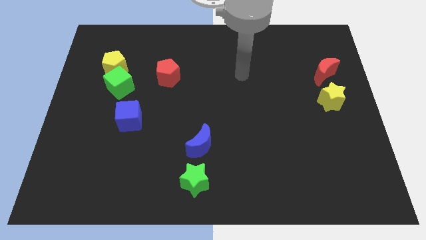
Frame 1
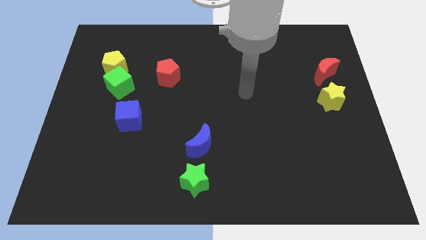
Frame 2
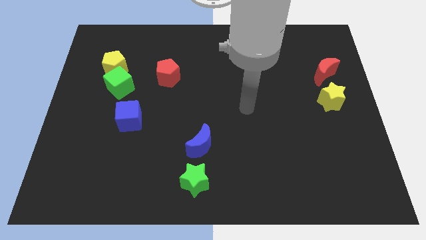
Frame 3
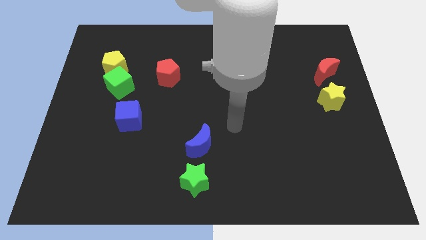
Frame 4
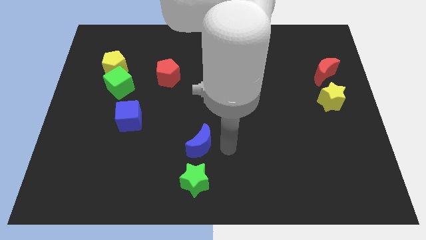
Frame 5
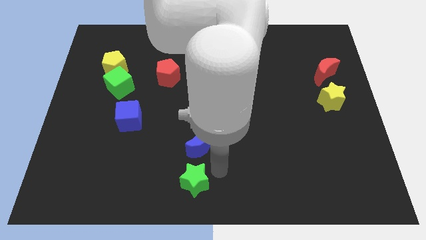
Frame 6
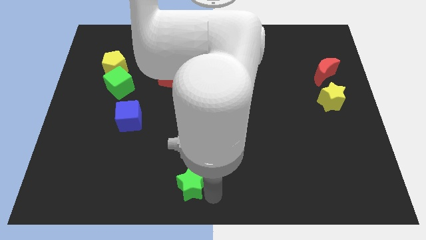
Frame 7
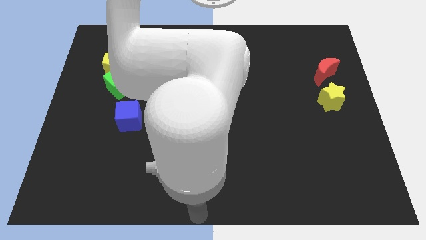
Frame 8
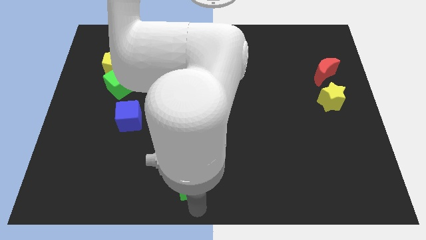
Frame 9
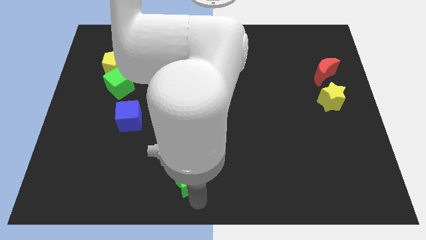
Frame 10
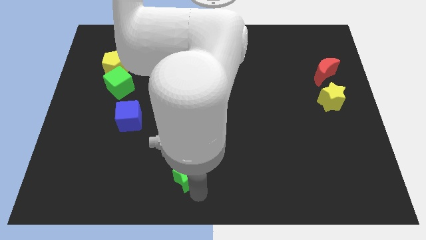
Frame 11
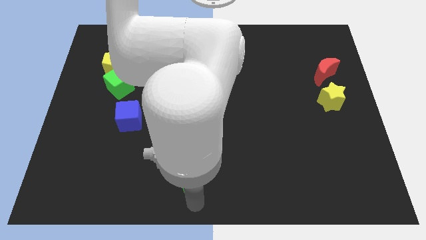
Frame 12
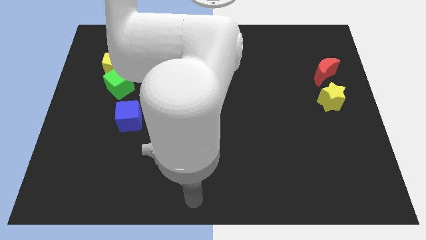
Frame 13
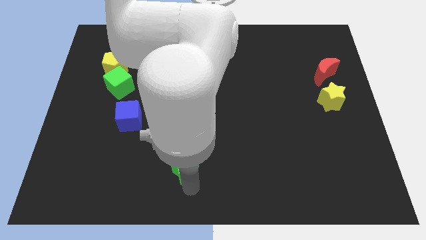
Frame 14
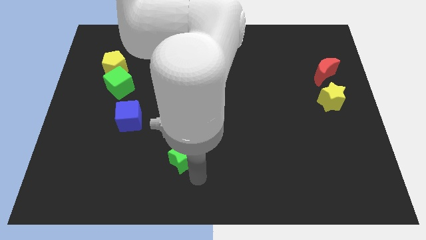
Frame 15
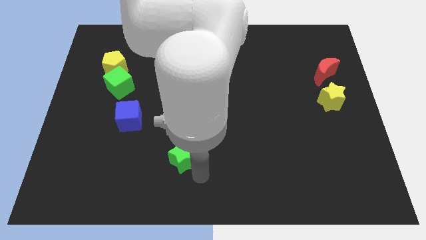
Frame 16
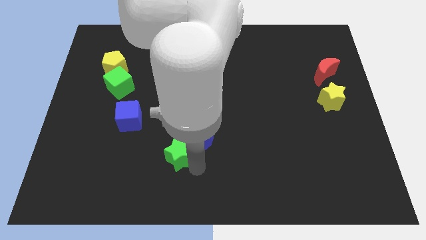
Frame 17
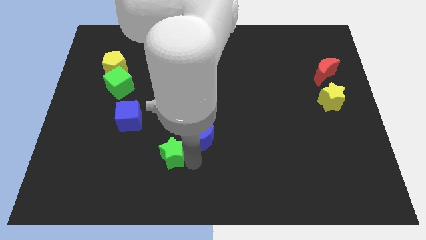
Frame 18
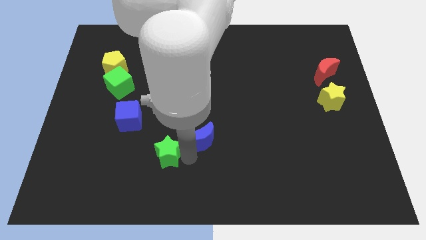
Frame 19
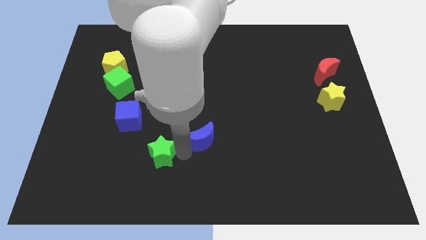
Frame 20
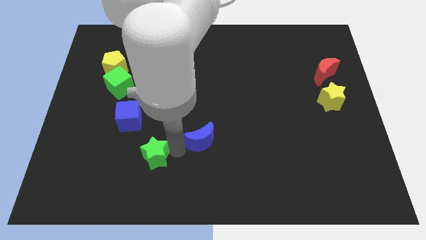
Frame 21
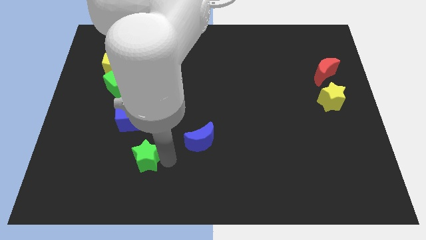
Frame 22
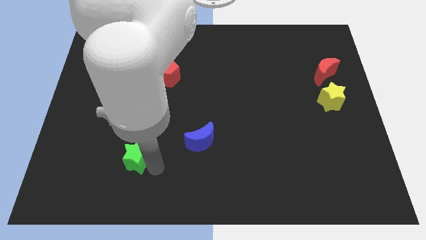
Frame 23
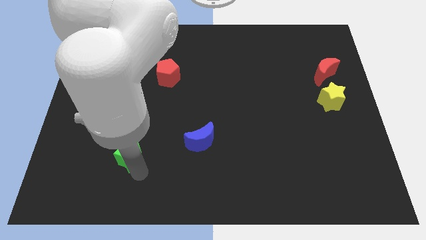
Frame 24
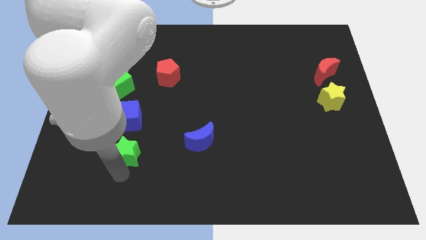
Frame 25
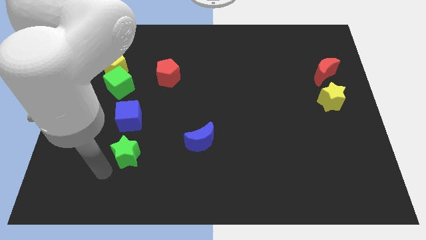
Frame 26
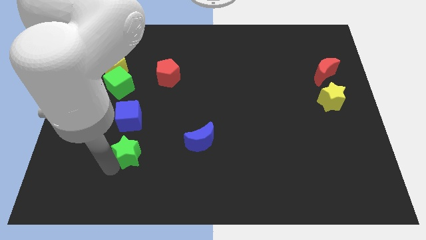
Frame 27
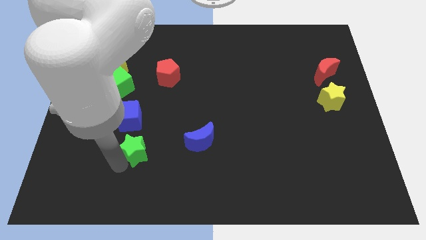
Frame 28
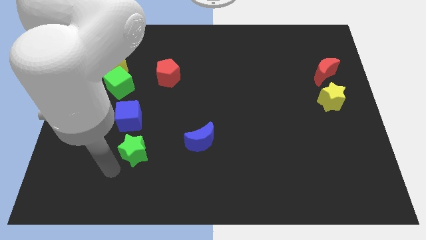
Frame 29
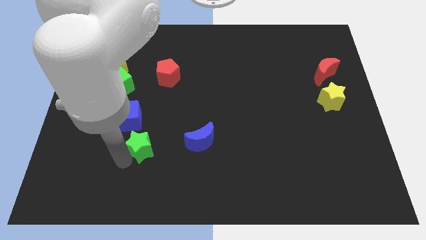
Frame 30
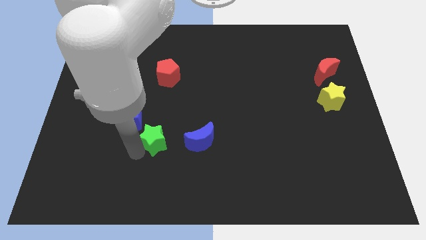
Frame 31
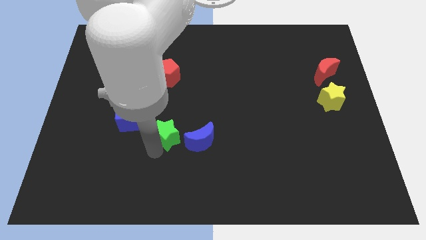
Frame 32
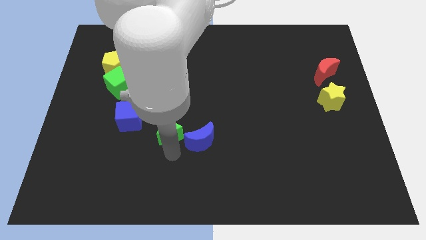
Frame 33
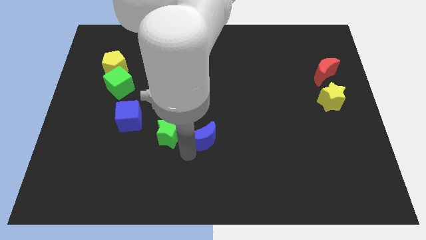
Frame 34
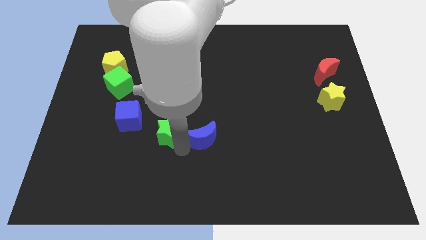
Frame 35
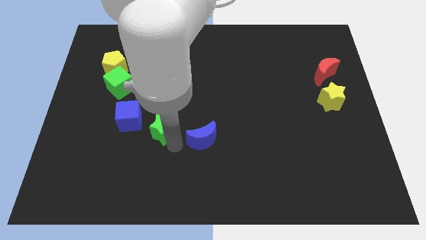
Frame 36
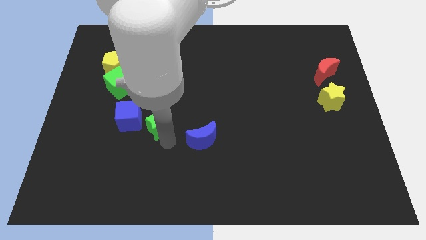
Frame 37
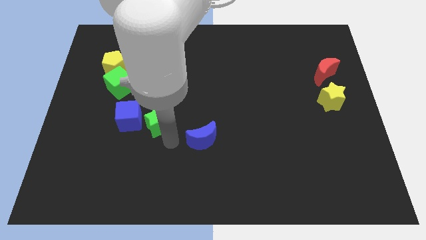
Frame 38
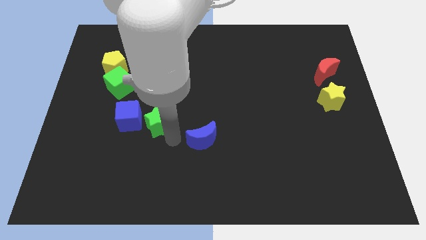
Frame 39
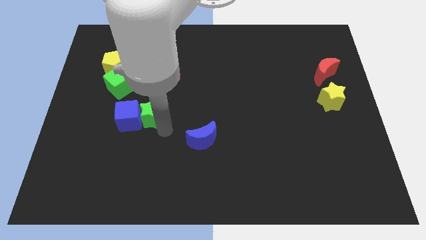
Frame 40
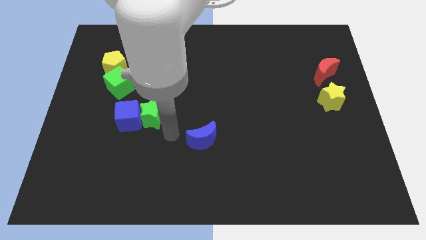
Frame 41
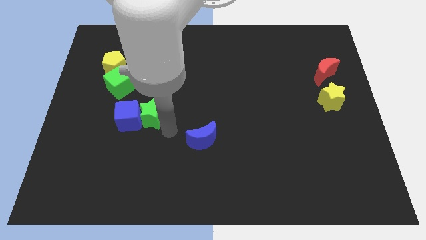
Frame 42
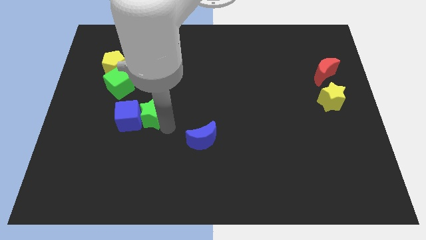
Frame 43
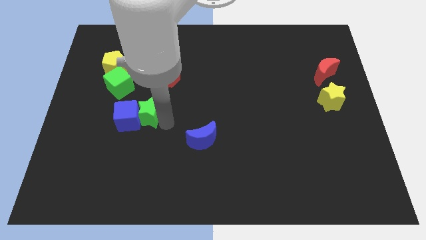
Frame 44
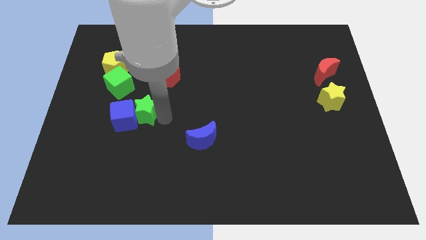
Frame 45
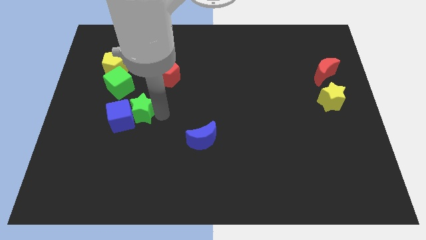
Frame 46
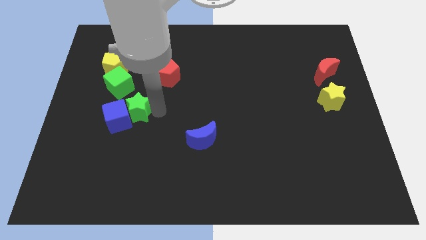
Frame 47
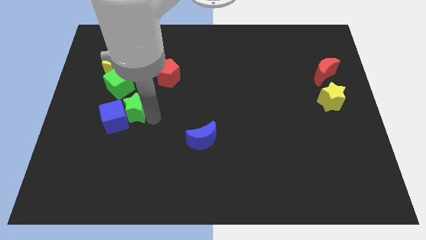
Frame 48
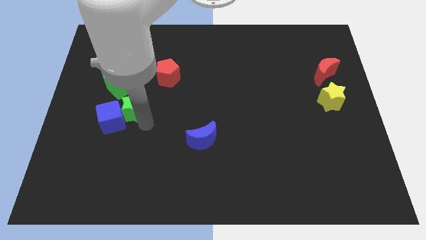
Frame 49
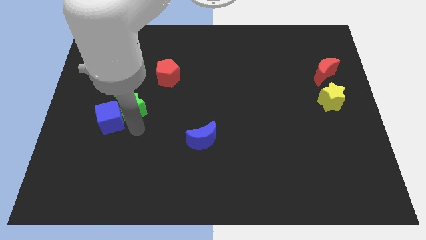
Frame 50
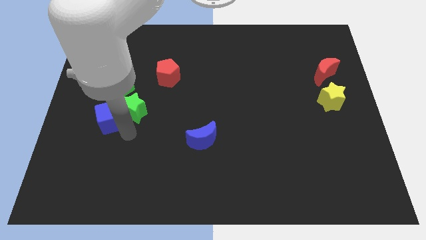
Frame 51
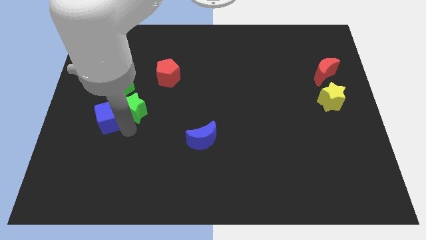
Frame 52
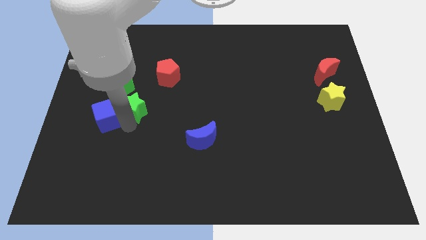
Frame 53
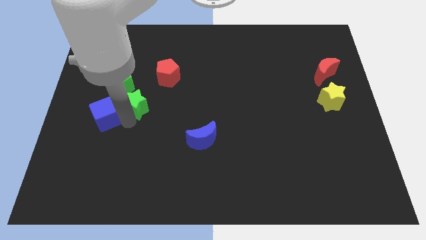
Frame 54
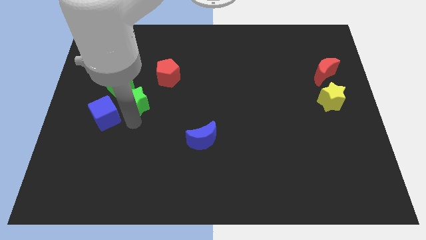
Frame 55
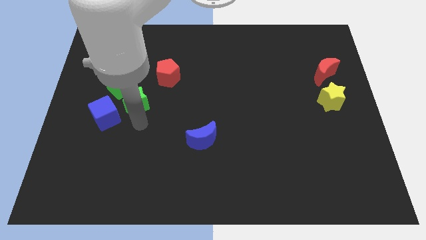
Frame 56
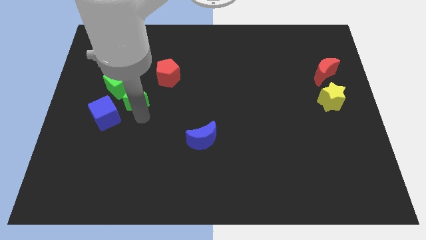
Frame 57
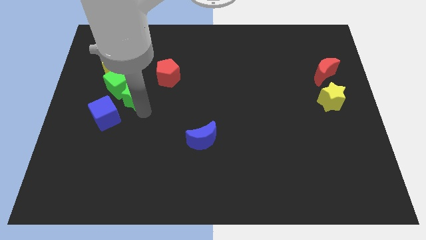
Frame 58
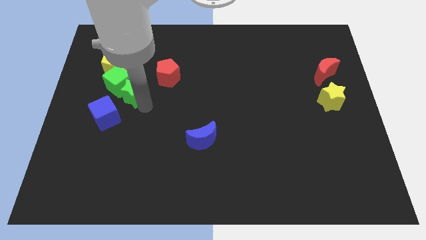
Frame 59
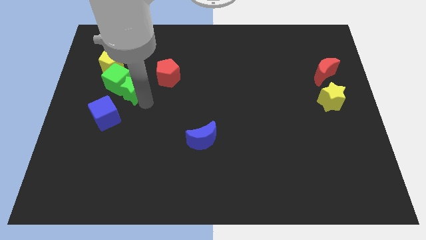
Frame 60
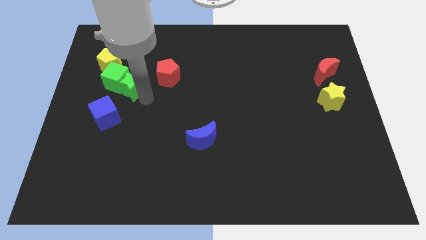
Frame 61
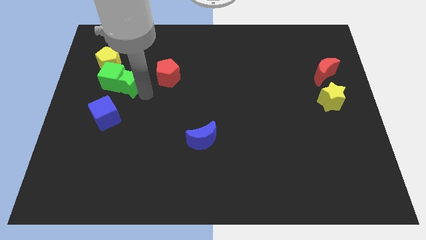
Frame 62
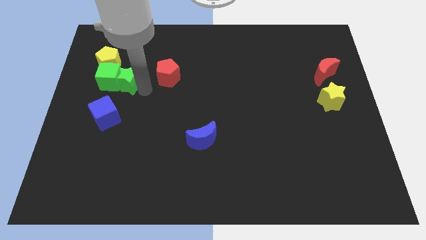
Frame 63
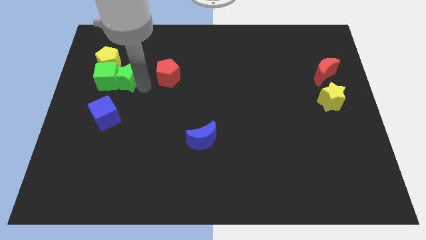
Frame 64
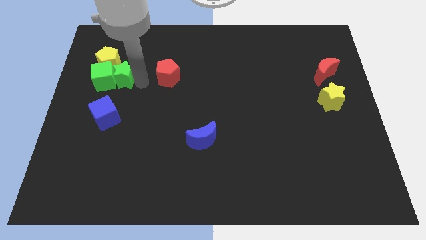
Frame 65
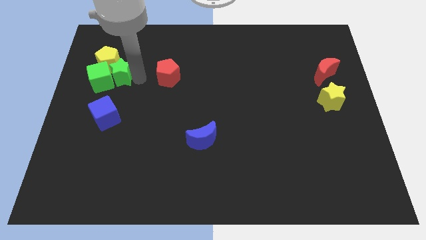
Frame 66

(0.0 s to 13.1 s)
push the green star towards the yellow pentagon

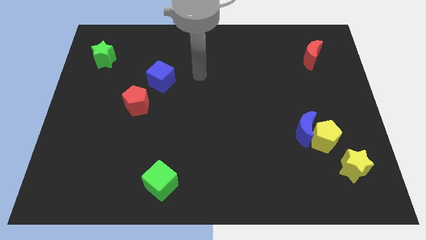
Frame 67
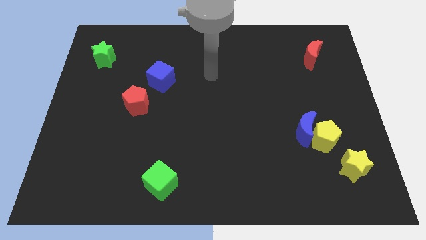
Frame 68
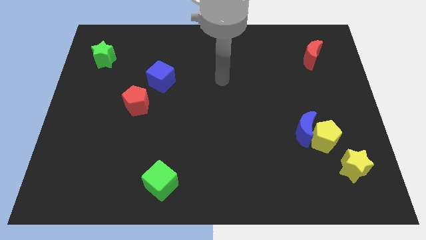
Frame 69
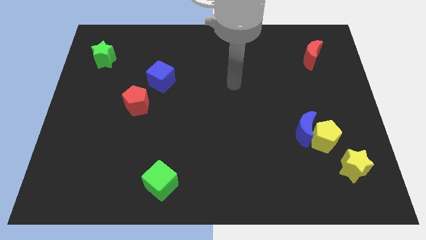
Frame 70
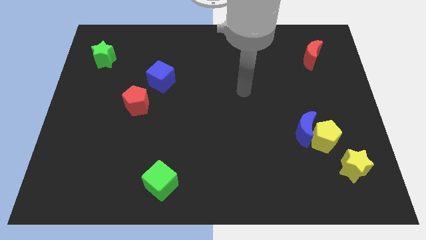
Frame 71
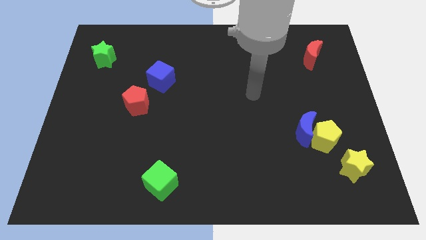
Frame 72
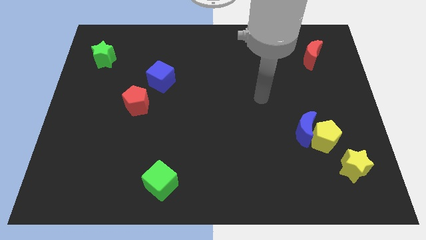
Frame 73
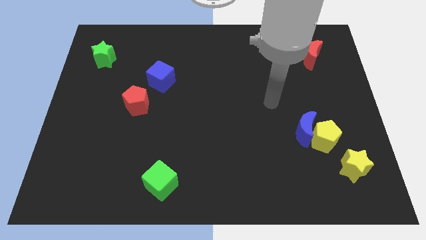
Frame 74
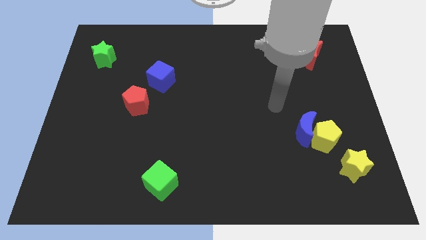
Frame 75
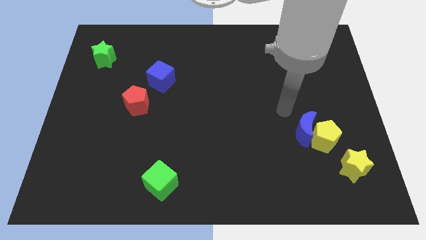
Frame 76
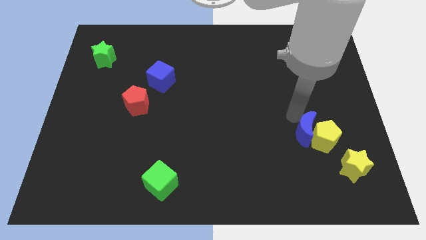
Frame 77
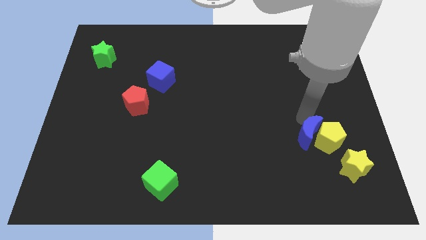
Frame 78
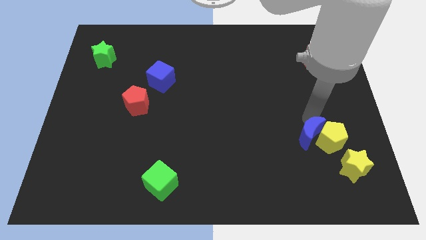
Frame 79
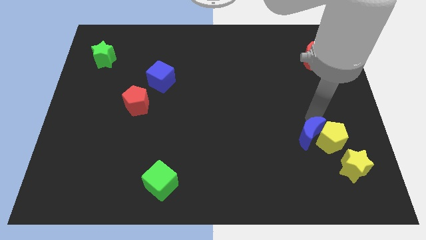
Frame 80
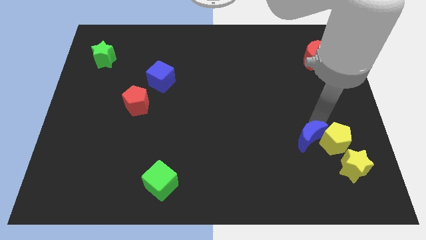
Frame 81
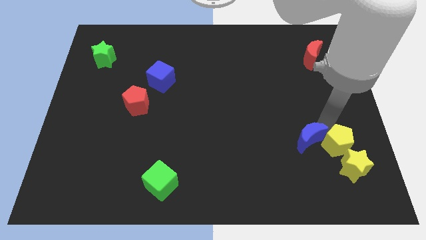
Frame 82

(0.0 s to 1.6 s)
put the yellow pentagon close to the yellow star
